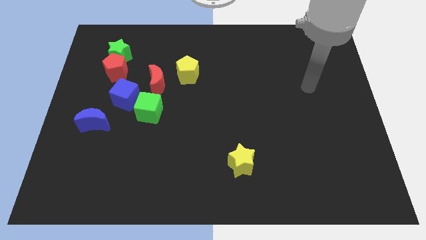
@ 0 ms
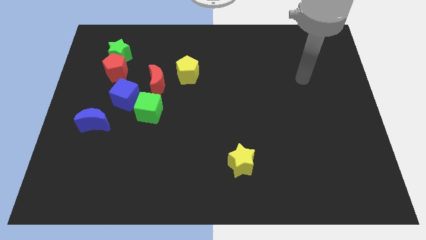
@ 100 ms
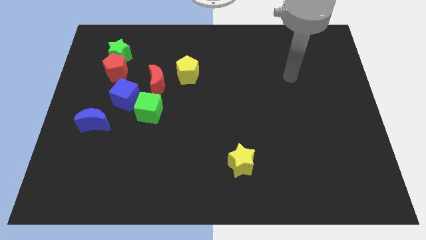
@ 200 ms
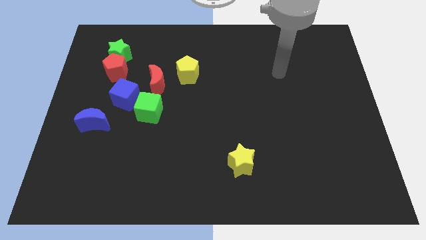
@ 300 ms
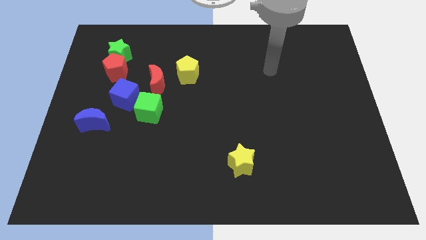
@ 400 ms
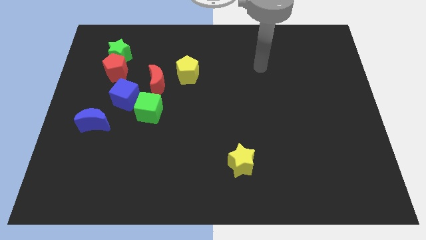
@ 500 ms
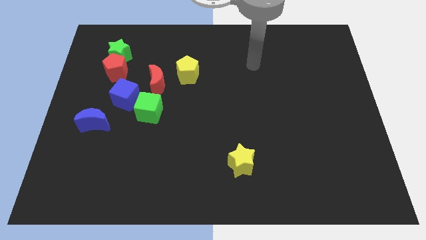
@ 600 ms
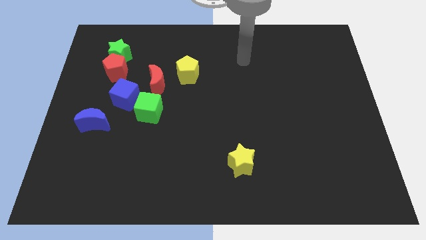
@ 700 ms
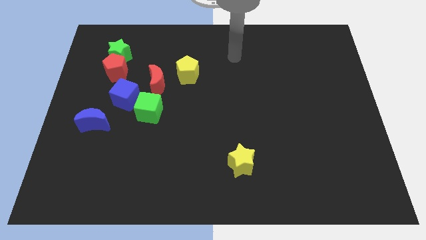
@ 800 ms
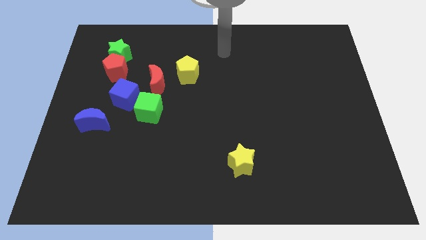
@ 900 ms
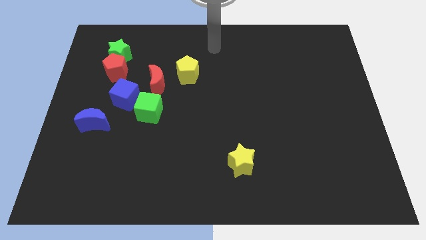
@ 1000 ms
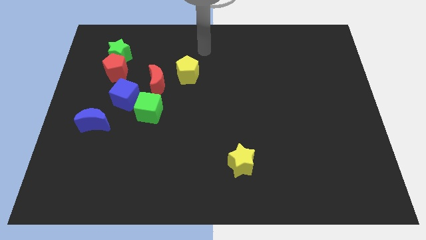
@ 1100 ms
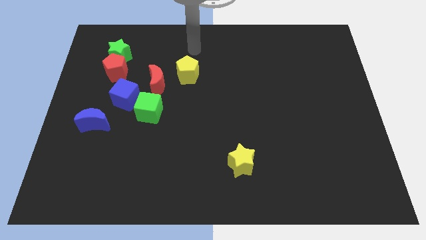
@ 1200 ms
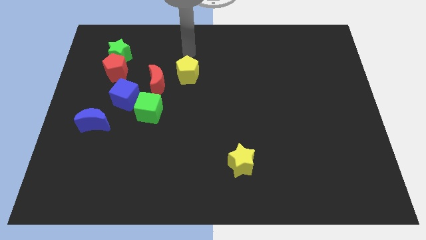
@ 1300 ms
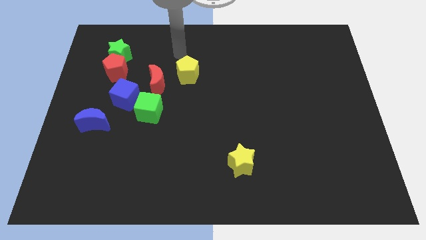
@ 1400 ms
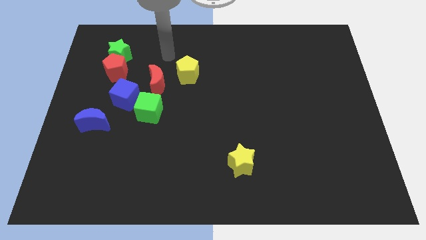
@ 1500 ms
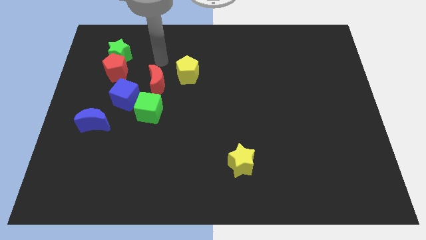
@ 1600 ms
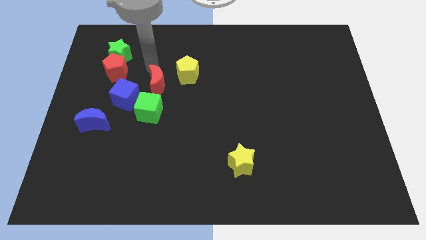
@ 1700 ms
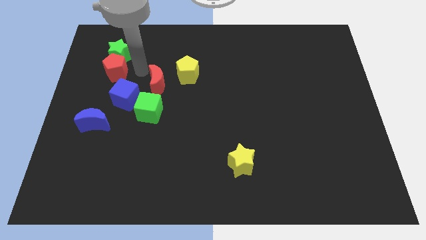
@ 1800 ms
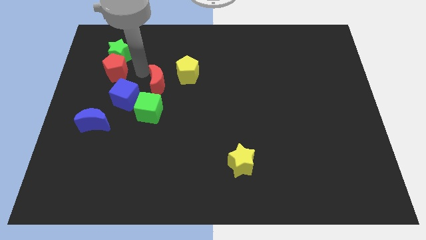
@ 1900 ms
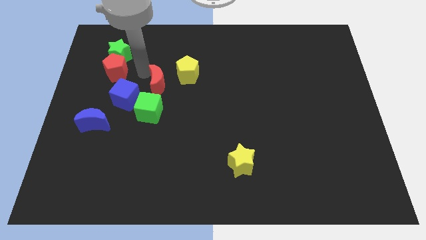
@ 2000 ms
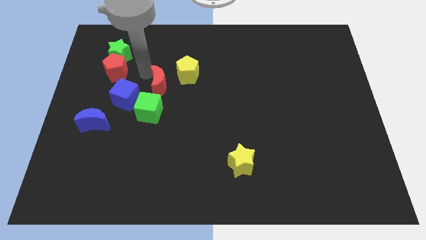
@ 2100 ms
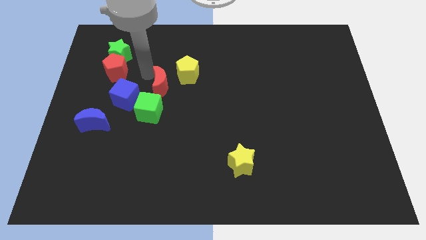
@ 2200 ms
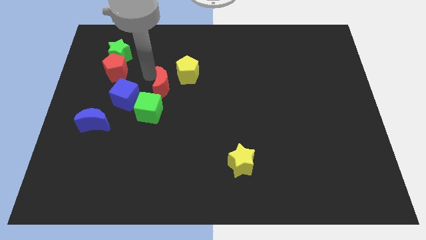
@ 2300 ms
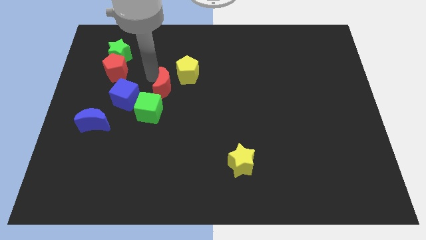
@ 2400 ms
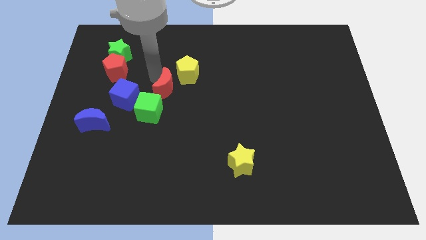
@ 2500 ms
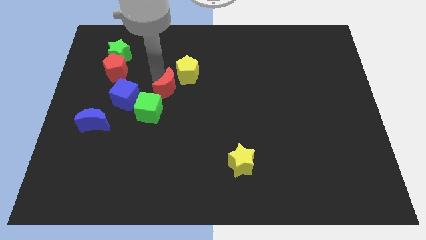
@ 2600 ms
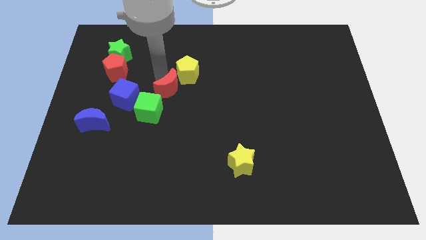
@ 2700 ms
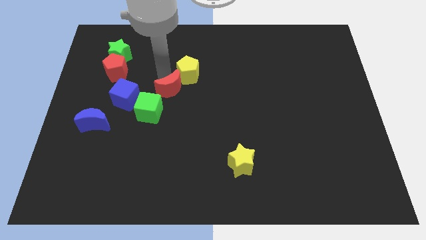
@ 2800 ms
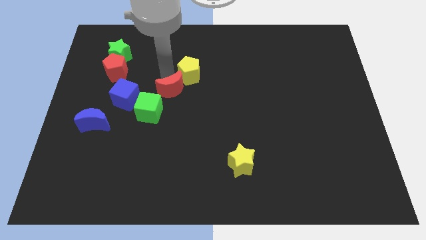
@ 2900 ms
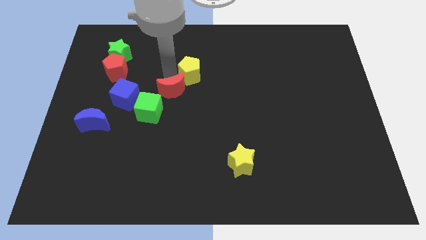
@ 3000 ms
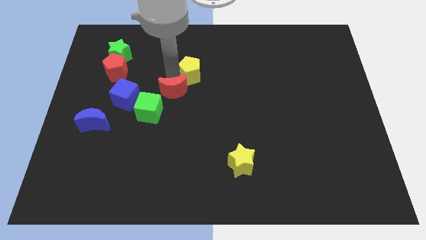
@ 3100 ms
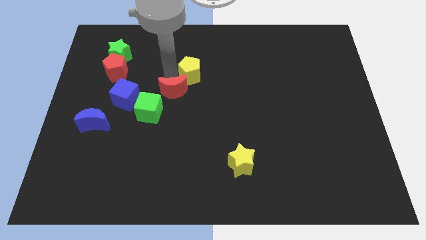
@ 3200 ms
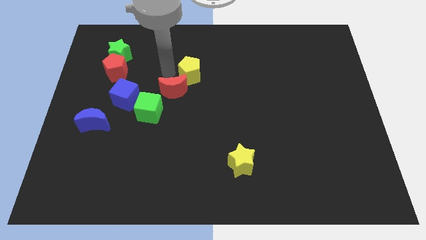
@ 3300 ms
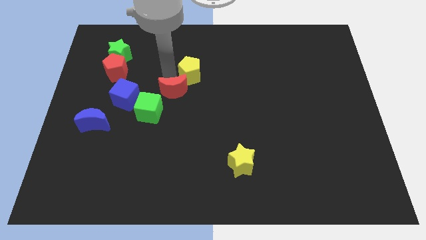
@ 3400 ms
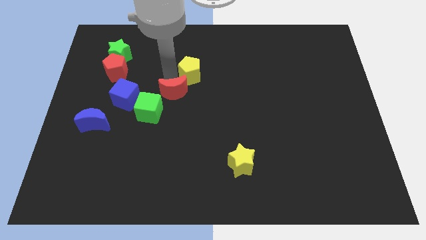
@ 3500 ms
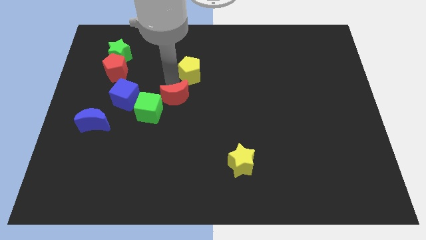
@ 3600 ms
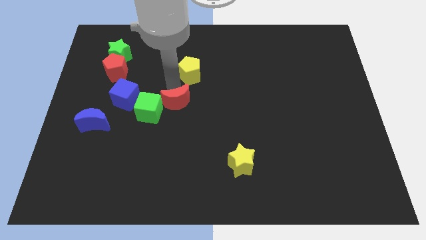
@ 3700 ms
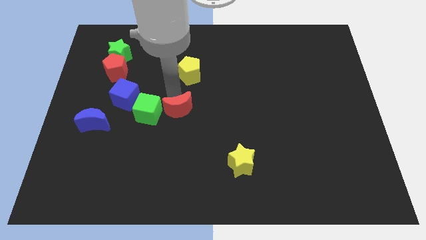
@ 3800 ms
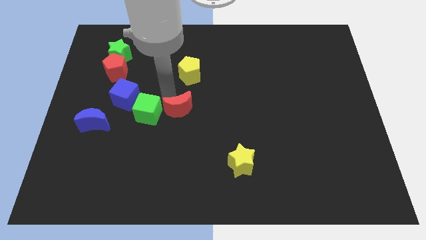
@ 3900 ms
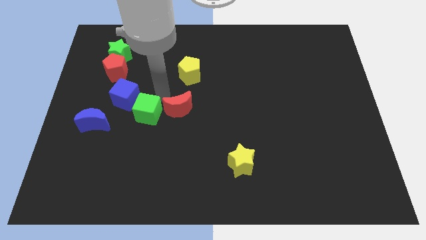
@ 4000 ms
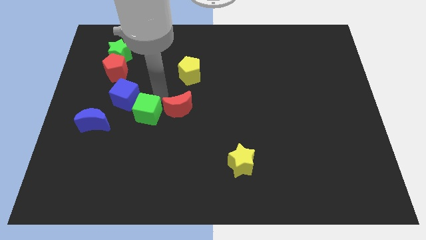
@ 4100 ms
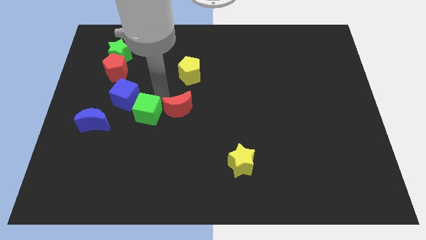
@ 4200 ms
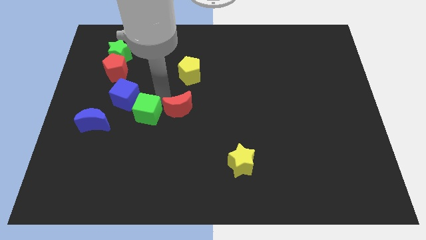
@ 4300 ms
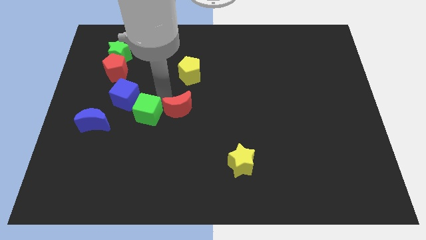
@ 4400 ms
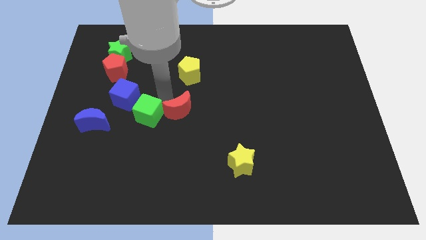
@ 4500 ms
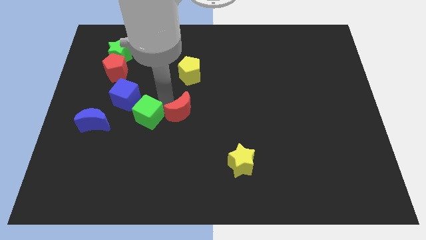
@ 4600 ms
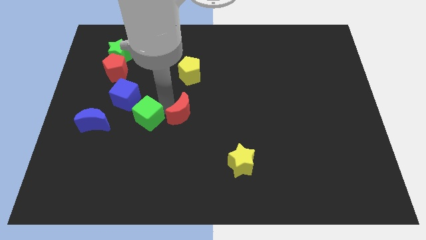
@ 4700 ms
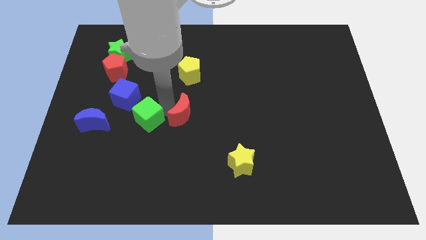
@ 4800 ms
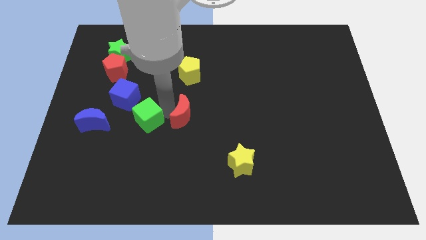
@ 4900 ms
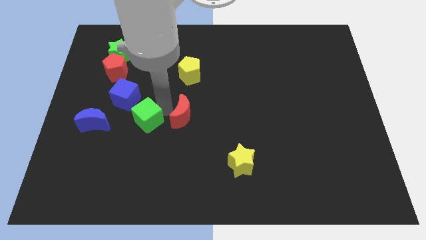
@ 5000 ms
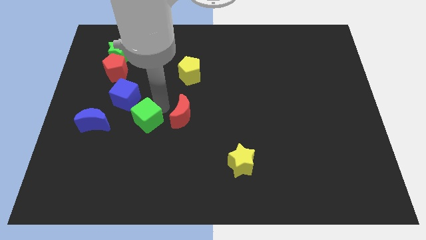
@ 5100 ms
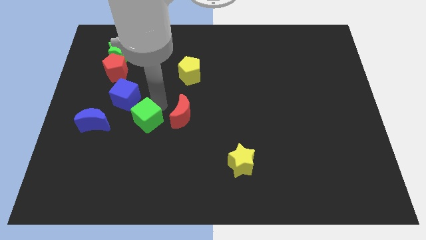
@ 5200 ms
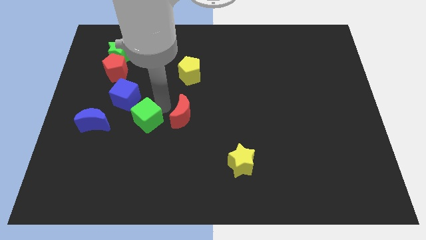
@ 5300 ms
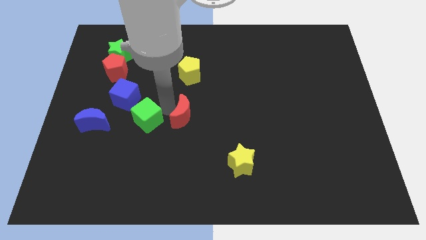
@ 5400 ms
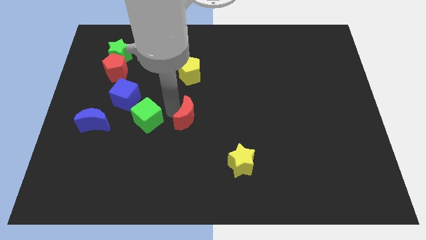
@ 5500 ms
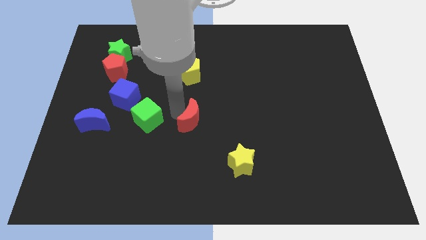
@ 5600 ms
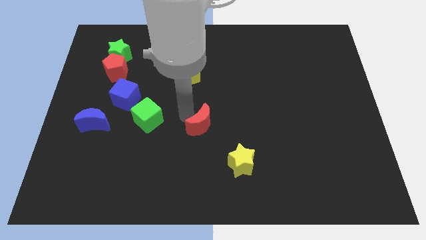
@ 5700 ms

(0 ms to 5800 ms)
move the red moon to the top left side of the yellow star

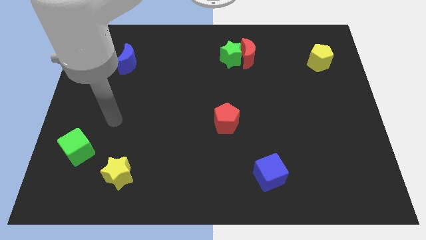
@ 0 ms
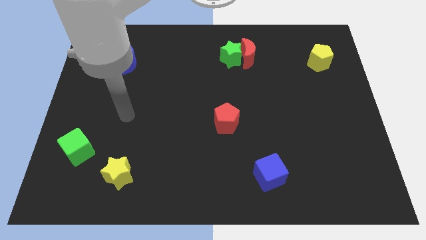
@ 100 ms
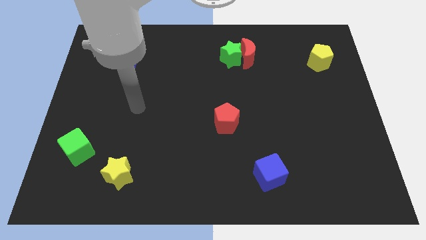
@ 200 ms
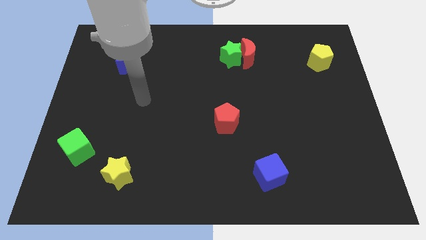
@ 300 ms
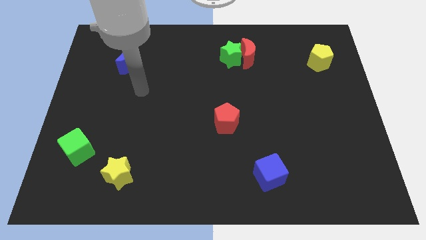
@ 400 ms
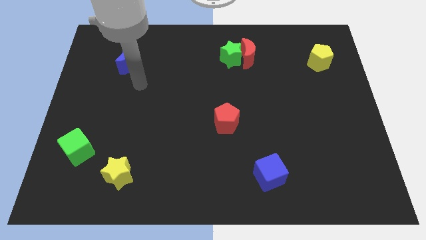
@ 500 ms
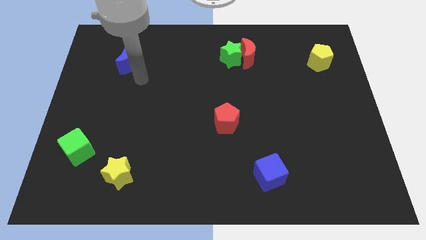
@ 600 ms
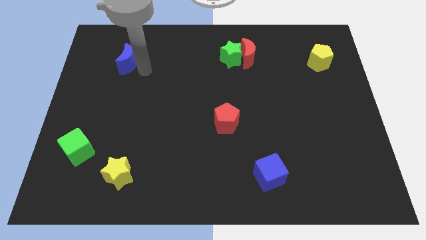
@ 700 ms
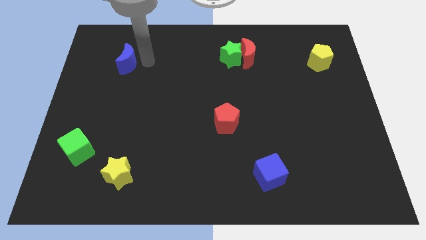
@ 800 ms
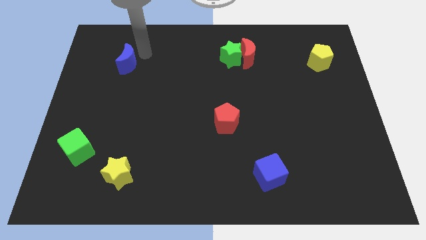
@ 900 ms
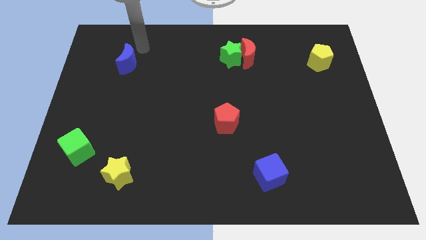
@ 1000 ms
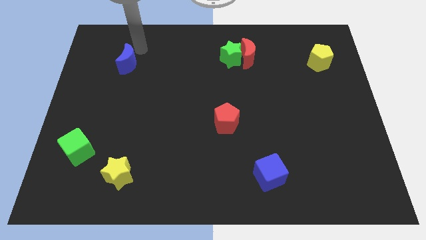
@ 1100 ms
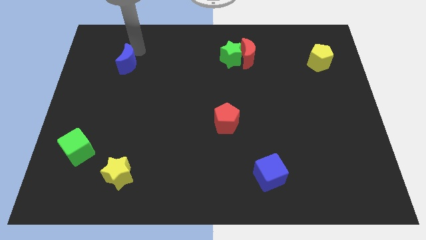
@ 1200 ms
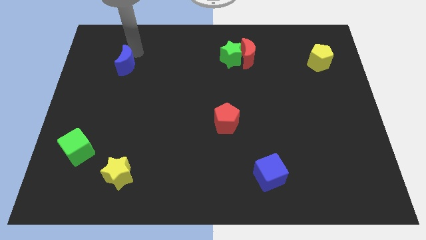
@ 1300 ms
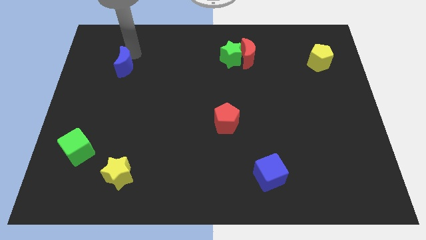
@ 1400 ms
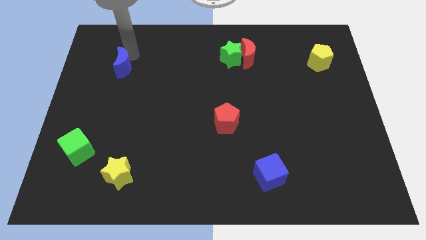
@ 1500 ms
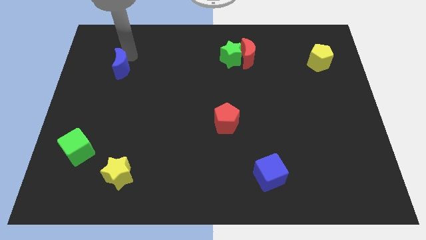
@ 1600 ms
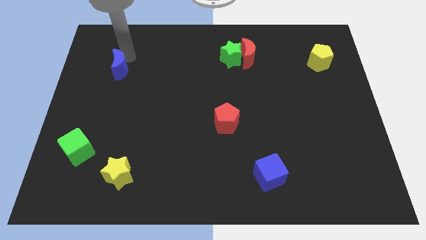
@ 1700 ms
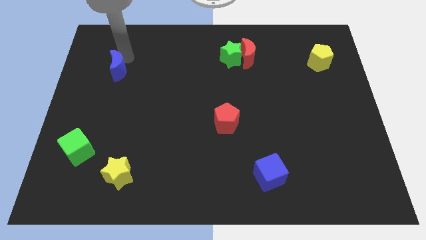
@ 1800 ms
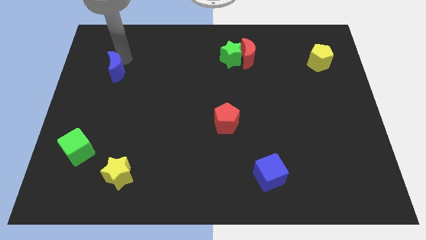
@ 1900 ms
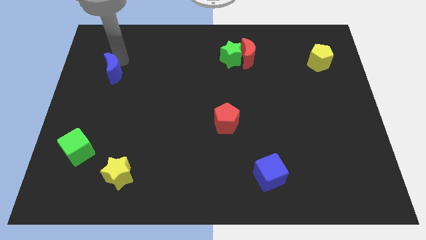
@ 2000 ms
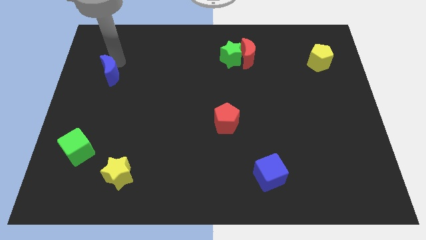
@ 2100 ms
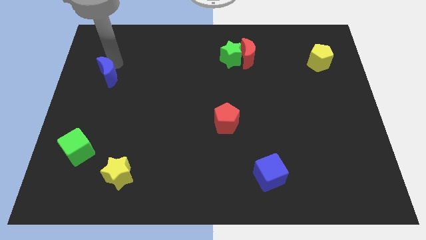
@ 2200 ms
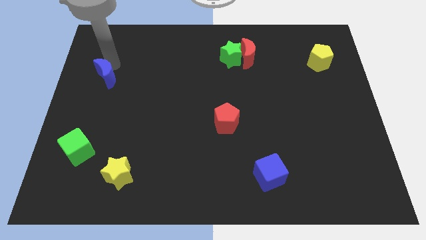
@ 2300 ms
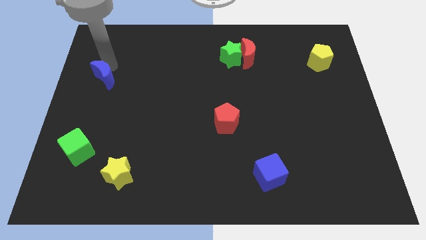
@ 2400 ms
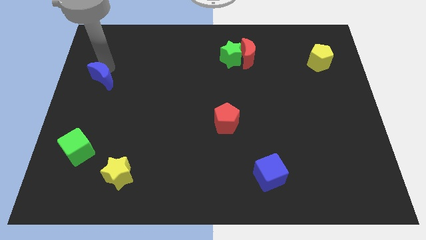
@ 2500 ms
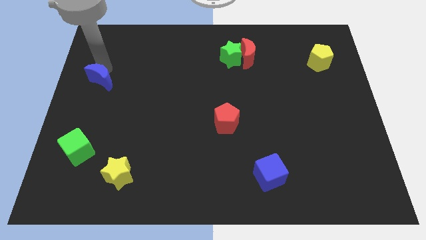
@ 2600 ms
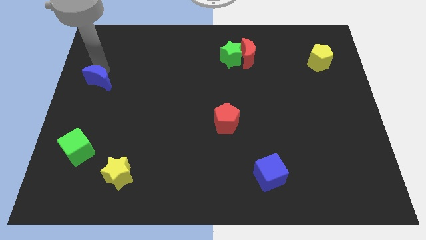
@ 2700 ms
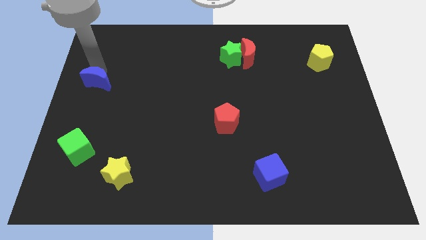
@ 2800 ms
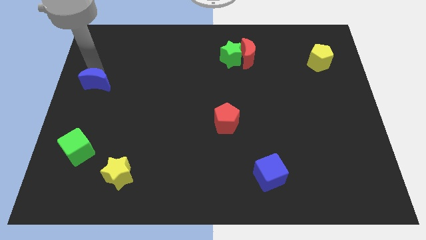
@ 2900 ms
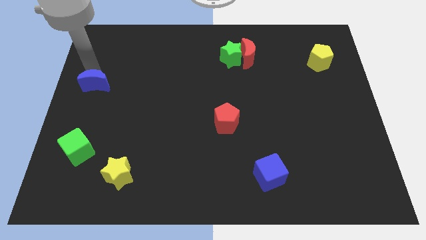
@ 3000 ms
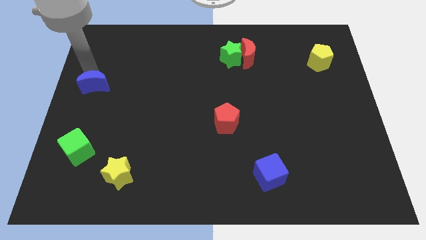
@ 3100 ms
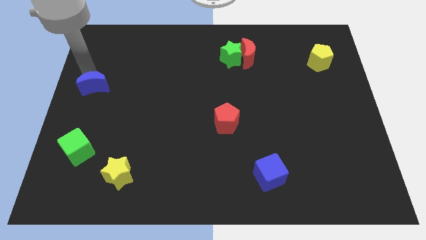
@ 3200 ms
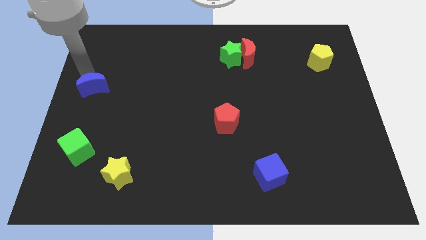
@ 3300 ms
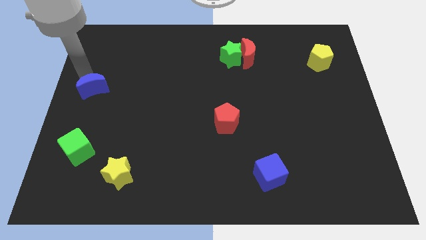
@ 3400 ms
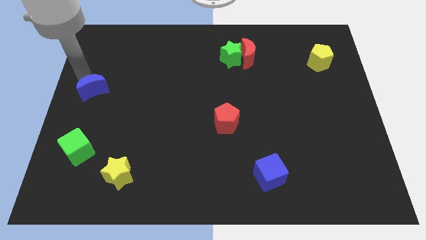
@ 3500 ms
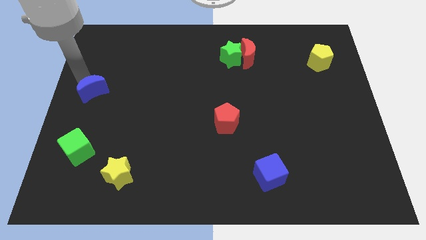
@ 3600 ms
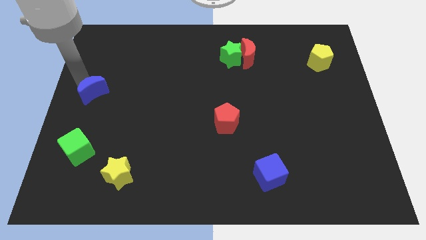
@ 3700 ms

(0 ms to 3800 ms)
slide the blue moon to the top of the green cube
